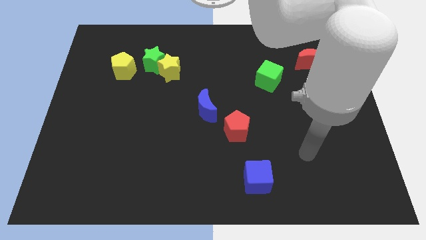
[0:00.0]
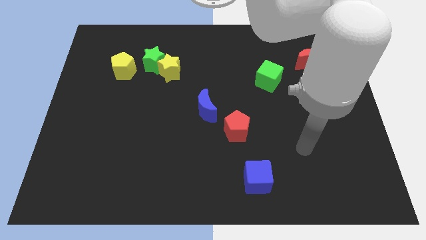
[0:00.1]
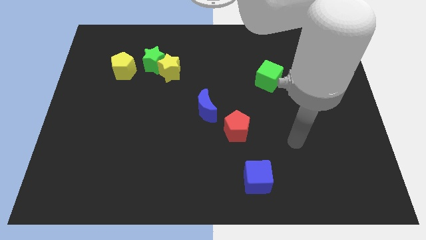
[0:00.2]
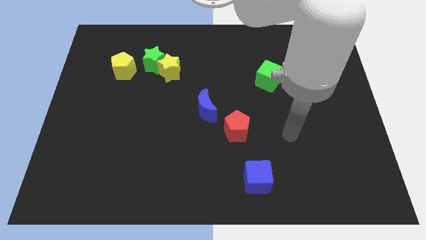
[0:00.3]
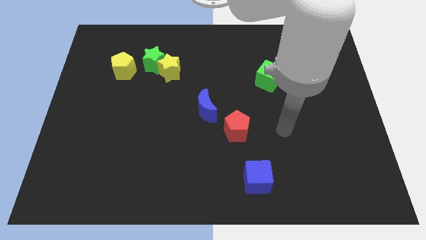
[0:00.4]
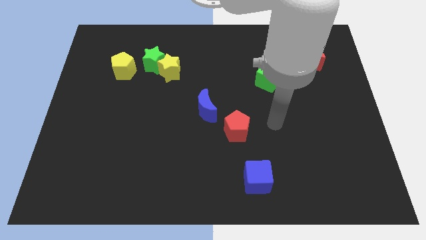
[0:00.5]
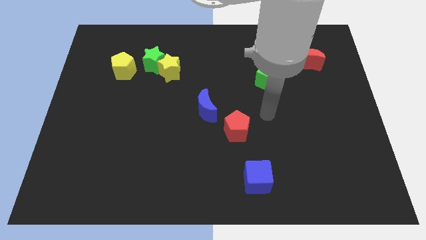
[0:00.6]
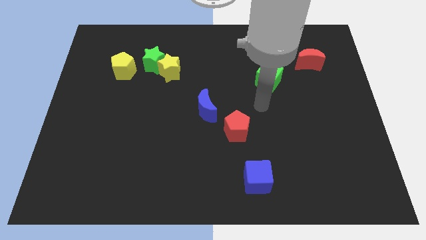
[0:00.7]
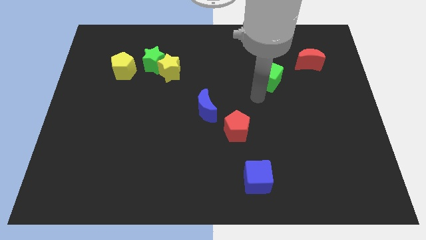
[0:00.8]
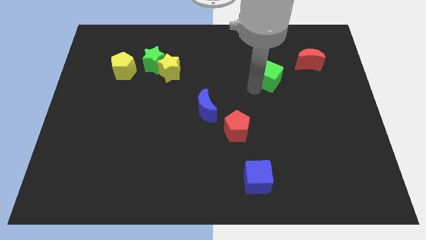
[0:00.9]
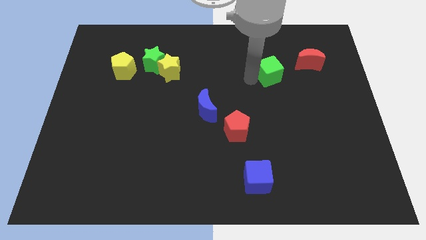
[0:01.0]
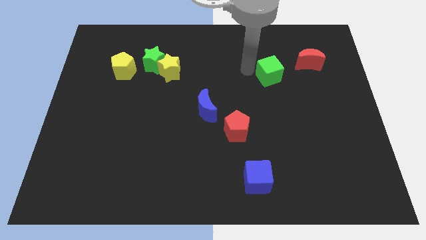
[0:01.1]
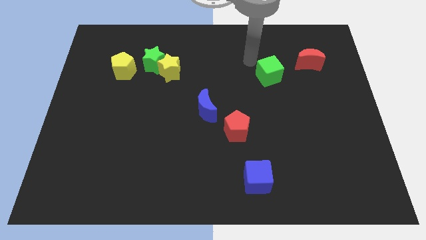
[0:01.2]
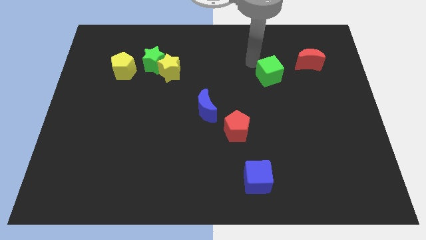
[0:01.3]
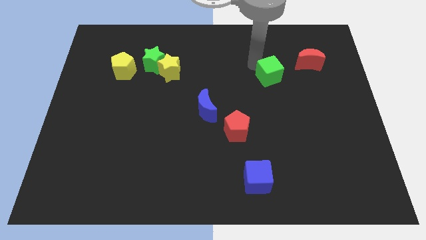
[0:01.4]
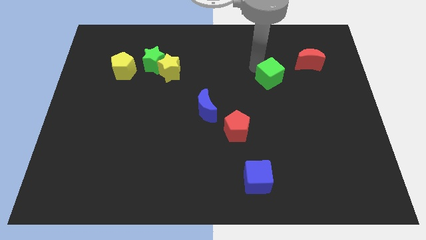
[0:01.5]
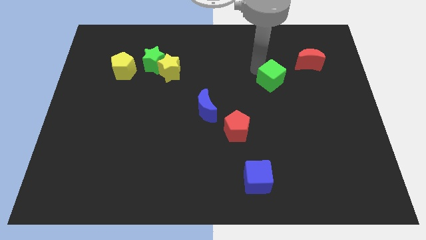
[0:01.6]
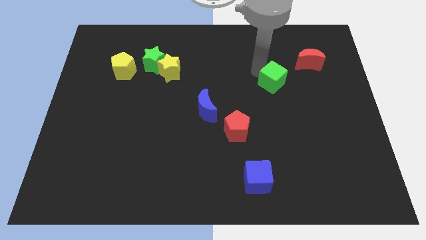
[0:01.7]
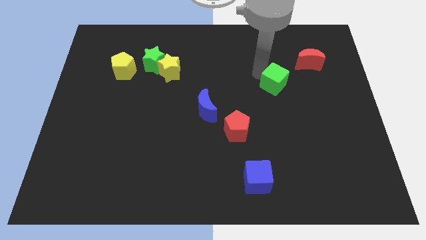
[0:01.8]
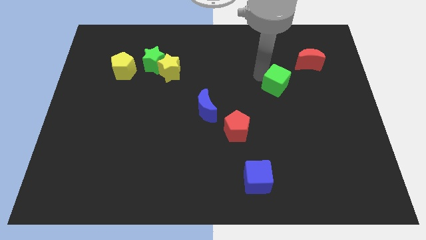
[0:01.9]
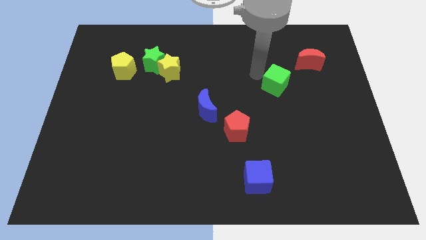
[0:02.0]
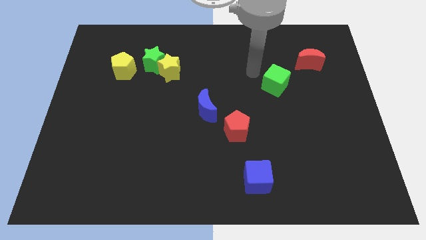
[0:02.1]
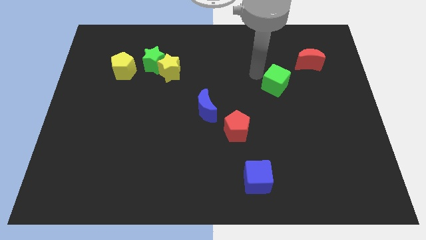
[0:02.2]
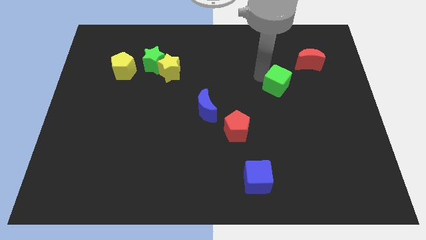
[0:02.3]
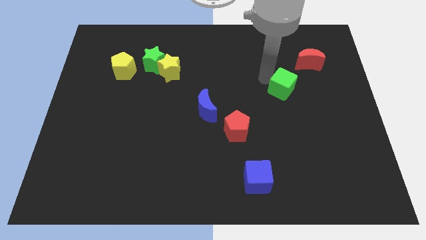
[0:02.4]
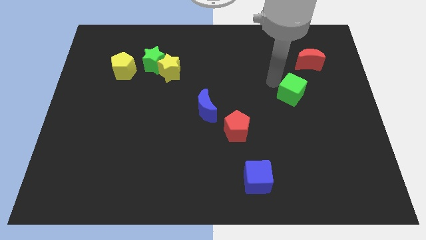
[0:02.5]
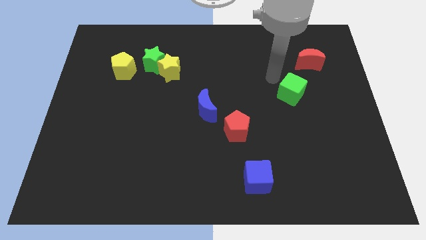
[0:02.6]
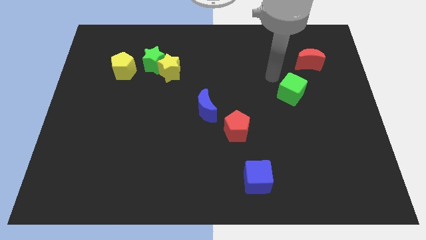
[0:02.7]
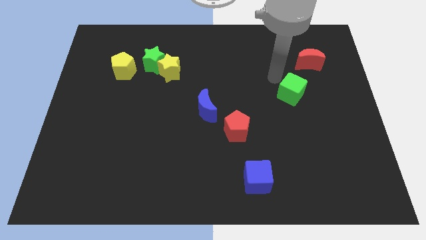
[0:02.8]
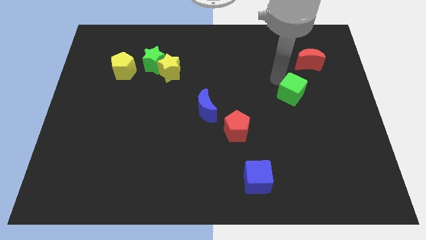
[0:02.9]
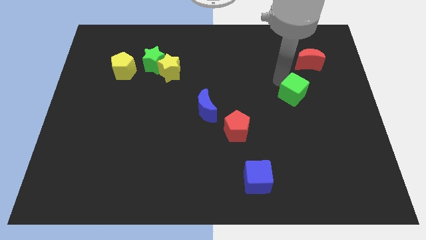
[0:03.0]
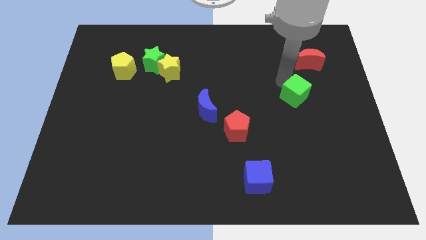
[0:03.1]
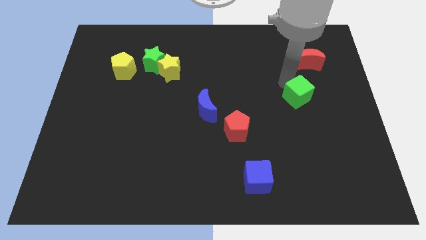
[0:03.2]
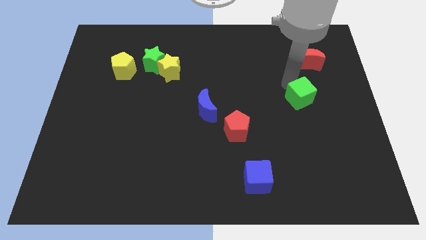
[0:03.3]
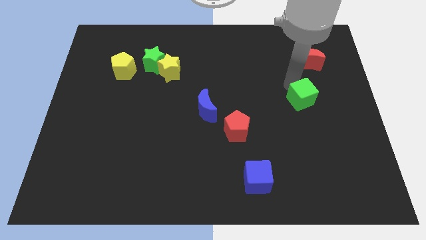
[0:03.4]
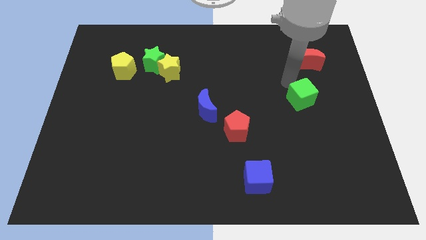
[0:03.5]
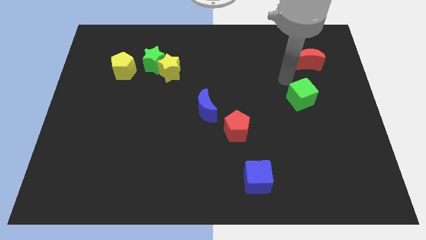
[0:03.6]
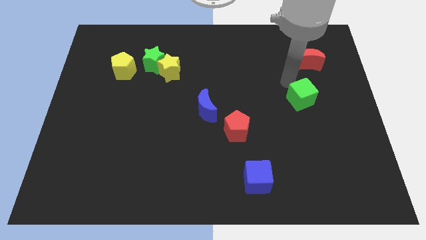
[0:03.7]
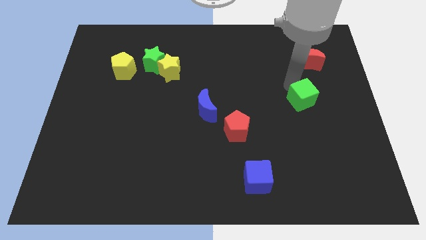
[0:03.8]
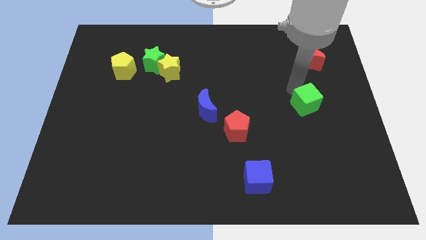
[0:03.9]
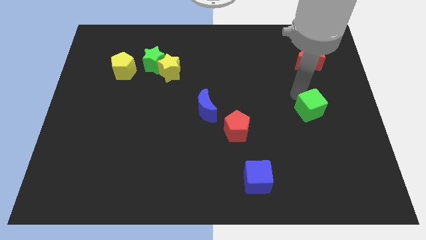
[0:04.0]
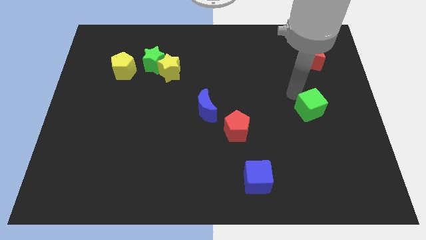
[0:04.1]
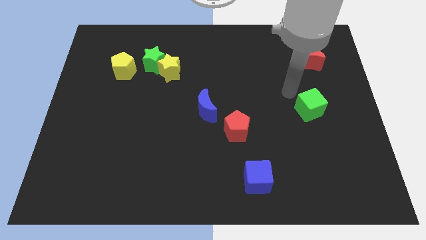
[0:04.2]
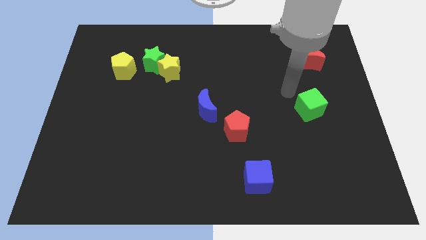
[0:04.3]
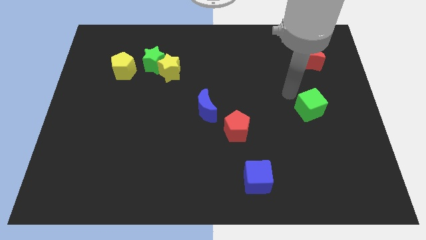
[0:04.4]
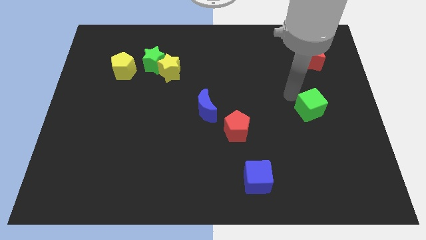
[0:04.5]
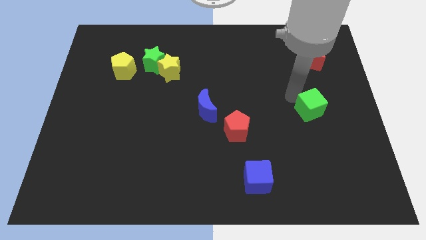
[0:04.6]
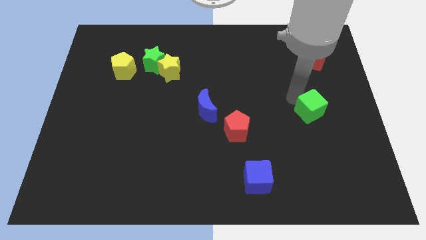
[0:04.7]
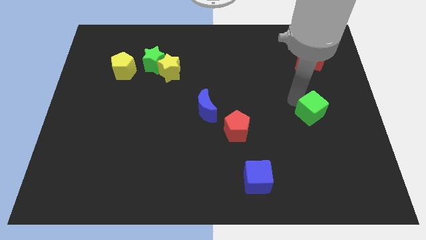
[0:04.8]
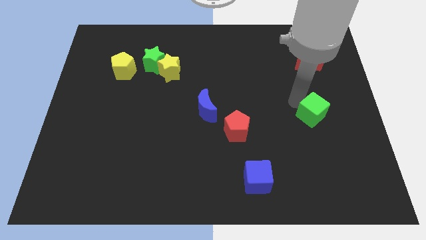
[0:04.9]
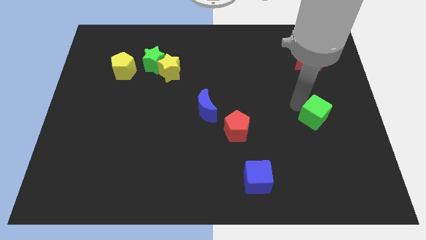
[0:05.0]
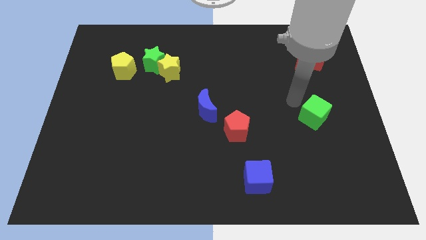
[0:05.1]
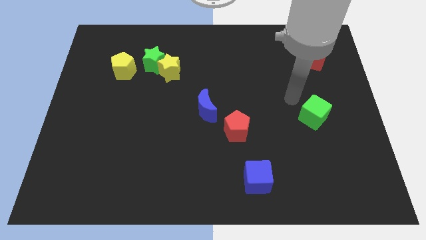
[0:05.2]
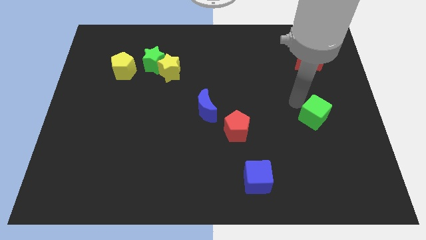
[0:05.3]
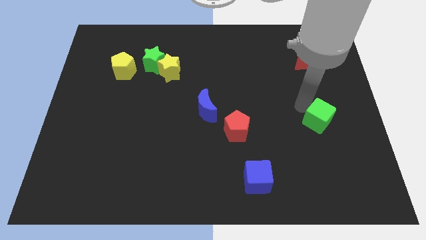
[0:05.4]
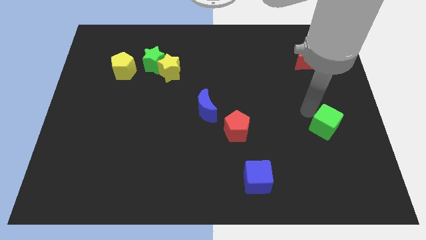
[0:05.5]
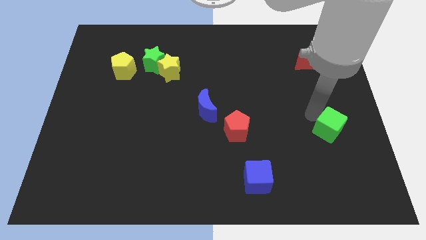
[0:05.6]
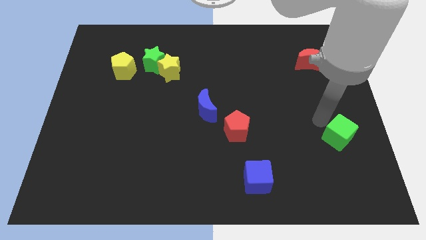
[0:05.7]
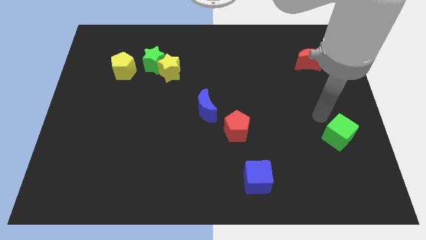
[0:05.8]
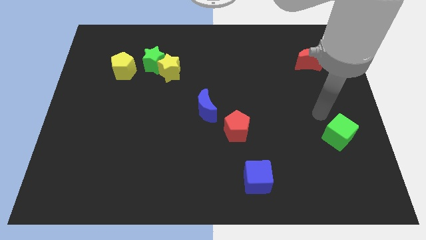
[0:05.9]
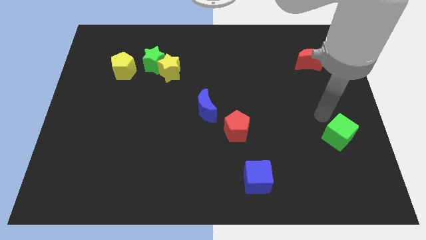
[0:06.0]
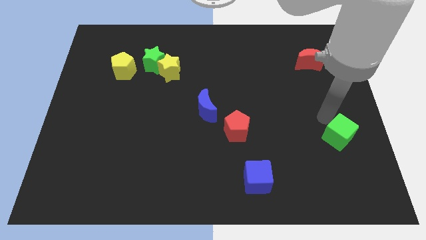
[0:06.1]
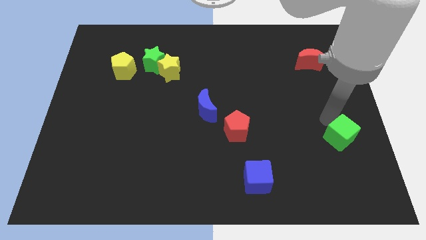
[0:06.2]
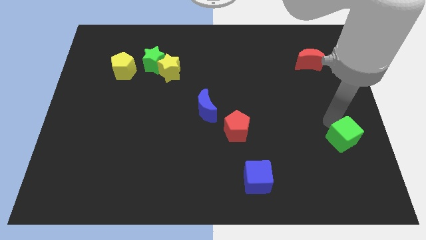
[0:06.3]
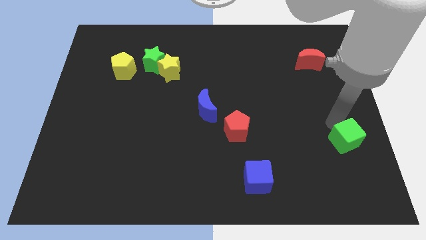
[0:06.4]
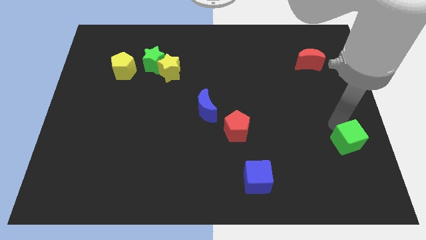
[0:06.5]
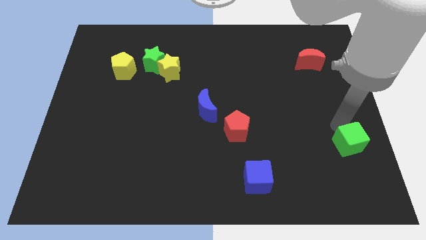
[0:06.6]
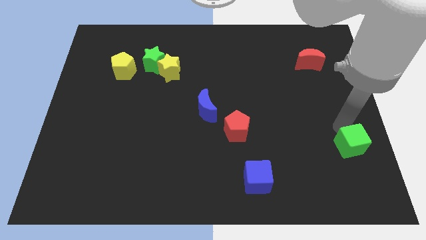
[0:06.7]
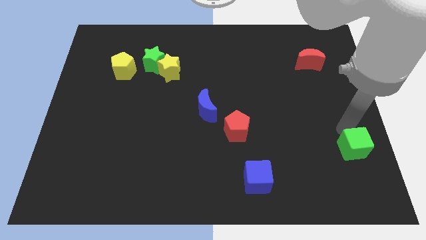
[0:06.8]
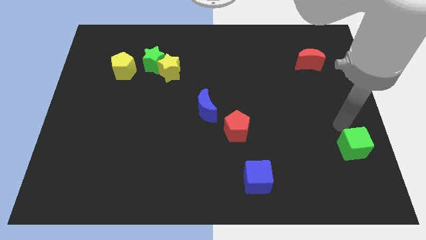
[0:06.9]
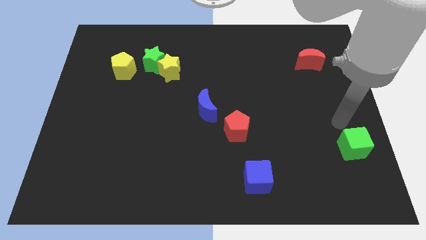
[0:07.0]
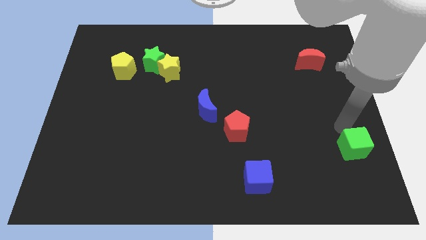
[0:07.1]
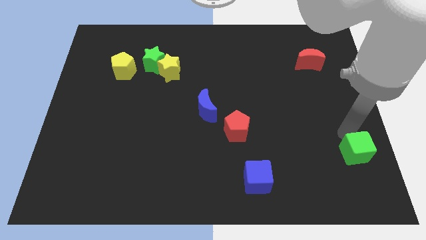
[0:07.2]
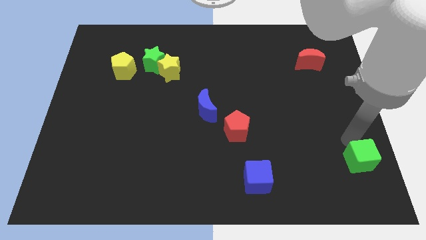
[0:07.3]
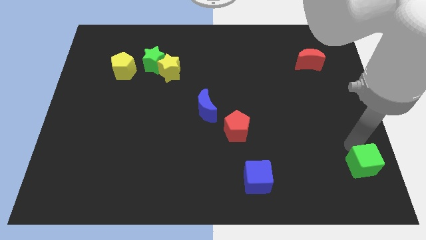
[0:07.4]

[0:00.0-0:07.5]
push the green cube to the bottom right corner
